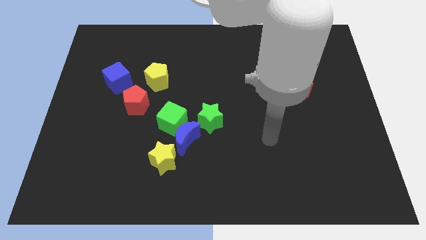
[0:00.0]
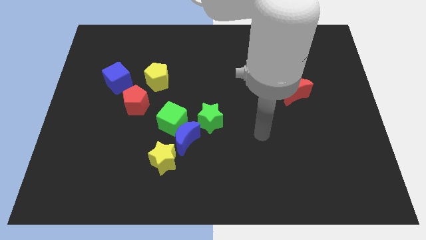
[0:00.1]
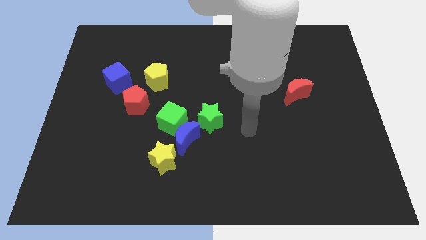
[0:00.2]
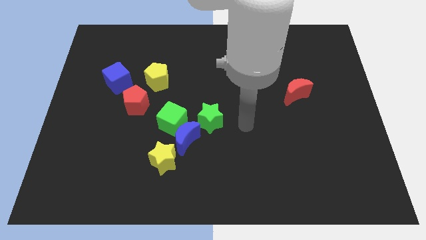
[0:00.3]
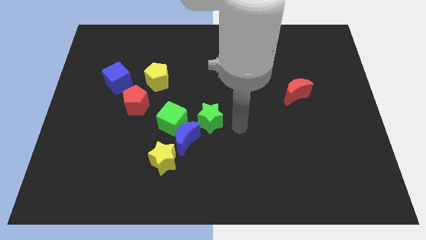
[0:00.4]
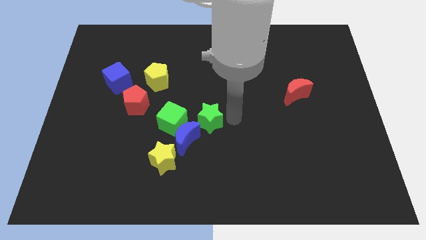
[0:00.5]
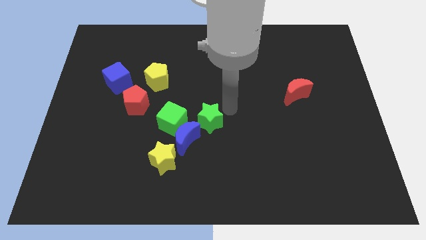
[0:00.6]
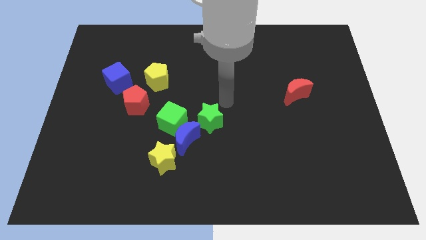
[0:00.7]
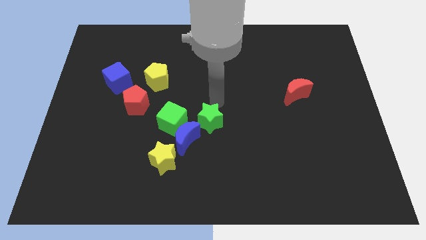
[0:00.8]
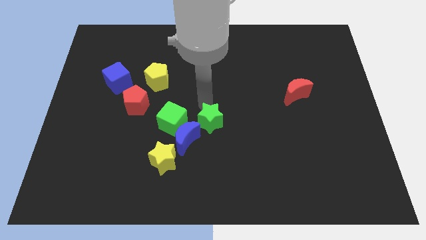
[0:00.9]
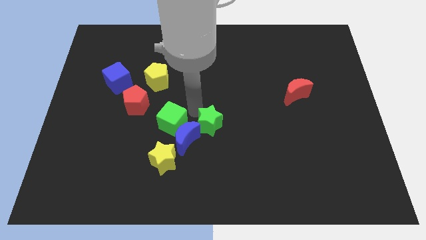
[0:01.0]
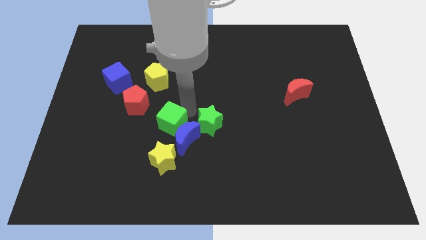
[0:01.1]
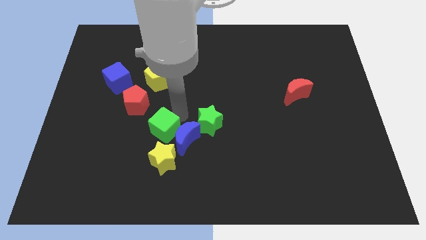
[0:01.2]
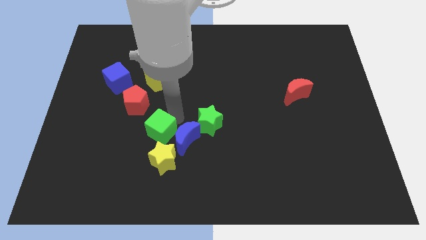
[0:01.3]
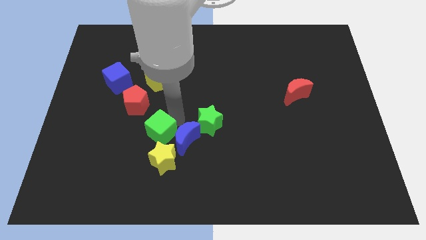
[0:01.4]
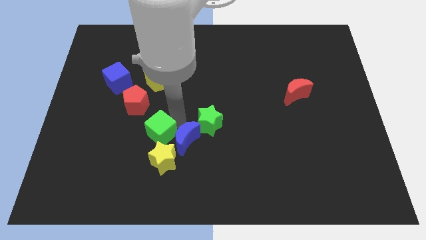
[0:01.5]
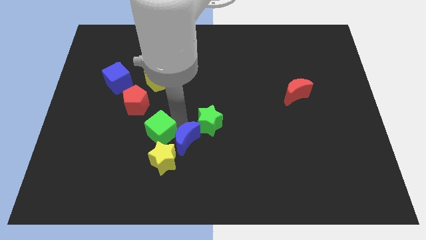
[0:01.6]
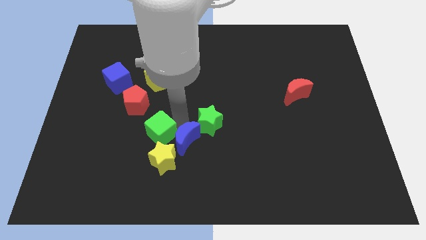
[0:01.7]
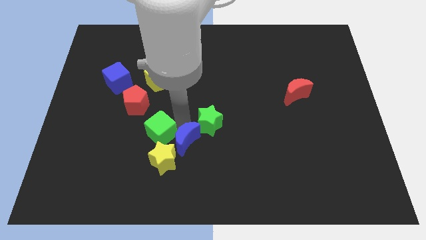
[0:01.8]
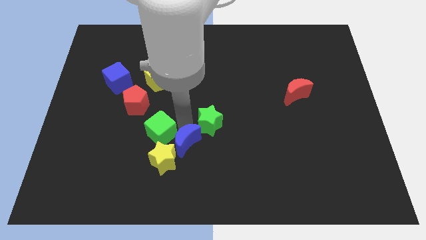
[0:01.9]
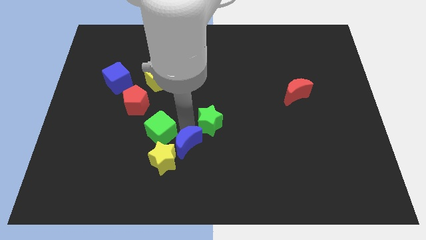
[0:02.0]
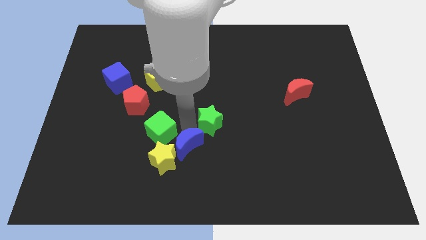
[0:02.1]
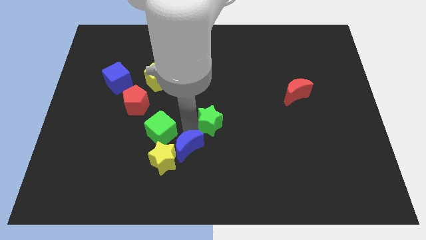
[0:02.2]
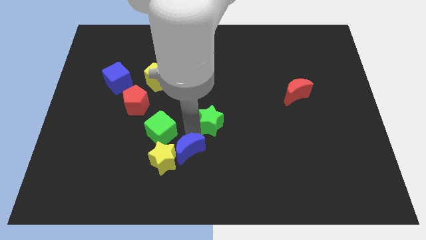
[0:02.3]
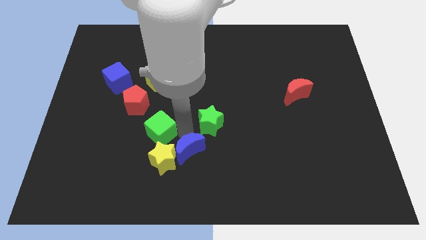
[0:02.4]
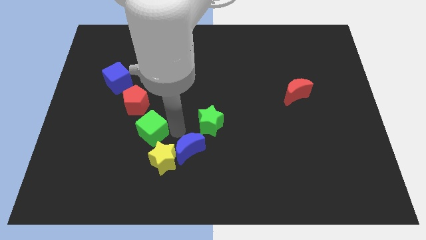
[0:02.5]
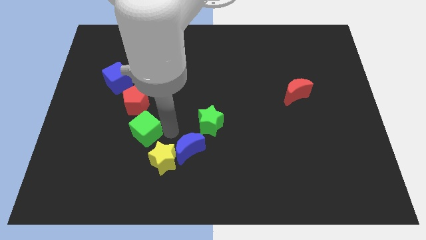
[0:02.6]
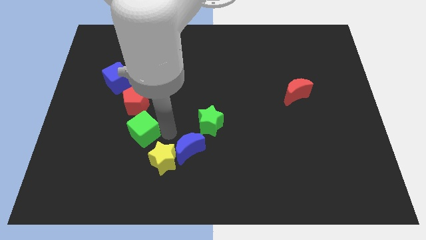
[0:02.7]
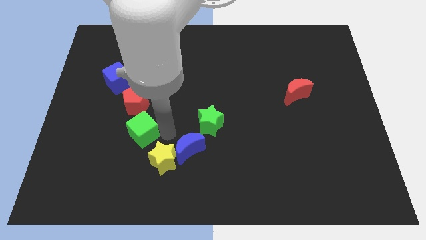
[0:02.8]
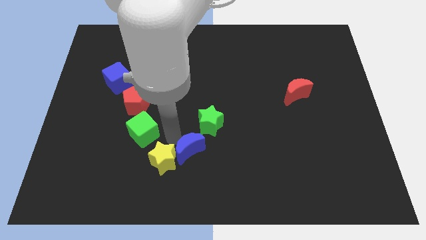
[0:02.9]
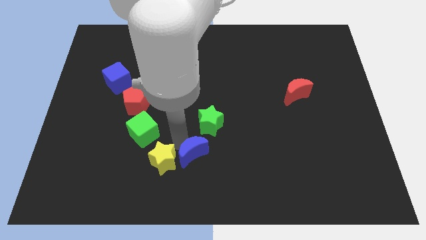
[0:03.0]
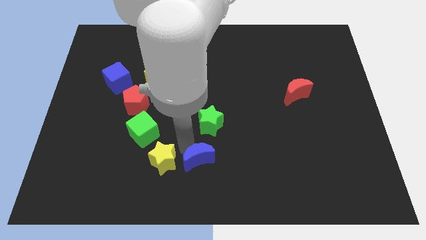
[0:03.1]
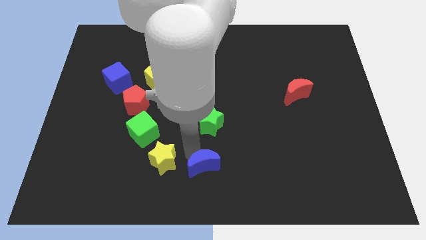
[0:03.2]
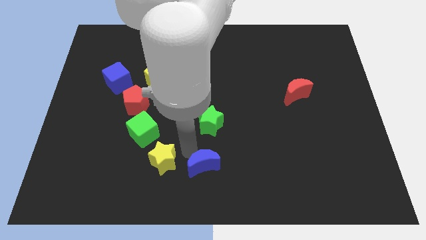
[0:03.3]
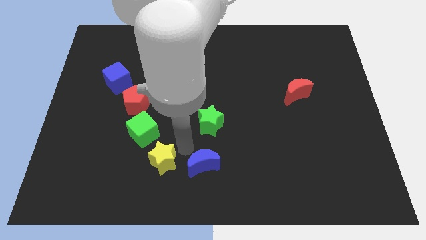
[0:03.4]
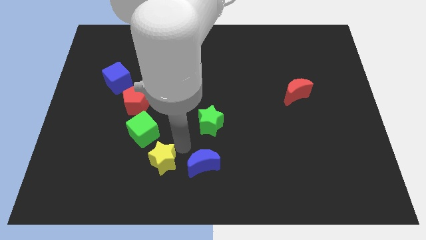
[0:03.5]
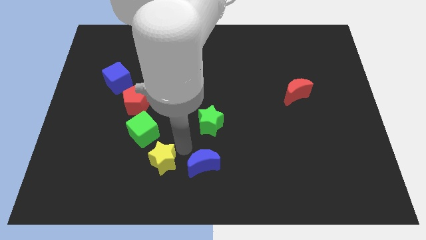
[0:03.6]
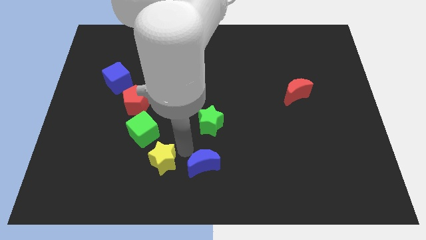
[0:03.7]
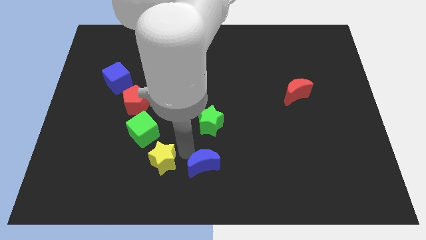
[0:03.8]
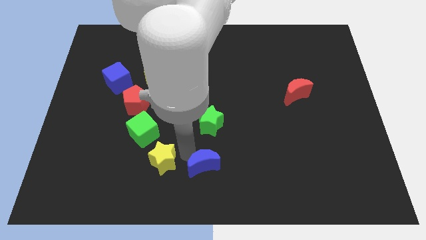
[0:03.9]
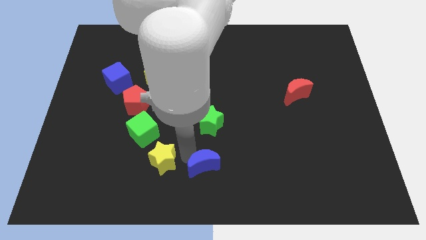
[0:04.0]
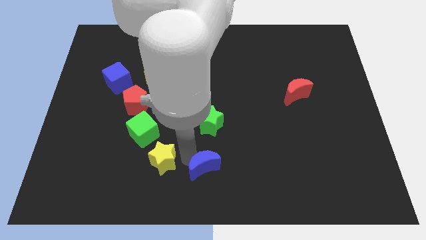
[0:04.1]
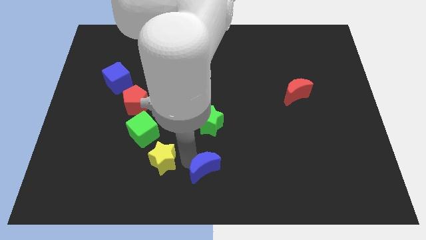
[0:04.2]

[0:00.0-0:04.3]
separate the blue moon from the green cube, yellow star, and green star

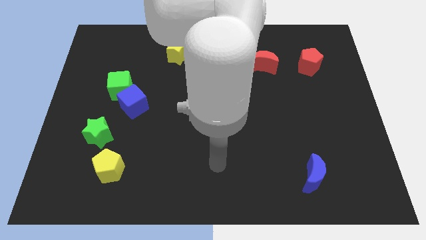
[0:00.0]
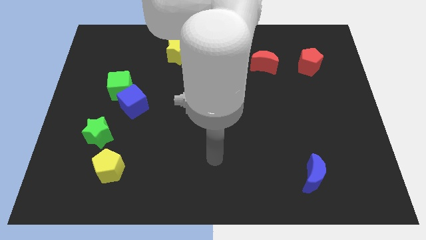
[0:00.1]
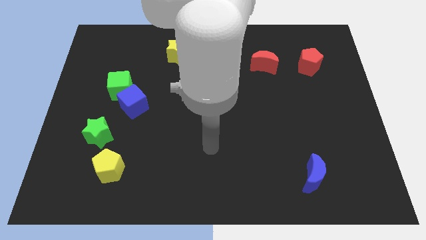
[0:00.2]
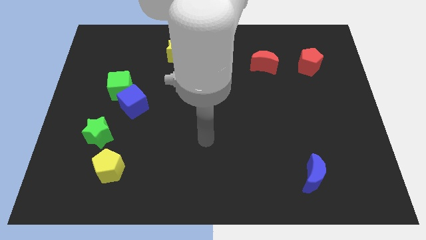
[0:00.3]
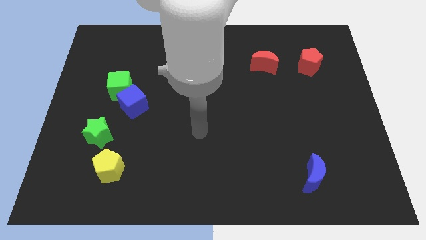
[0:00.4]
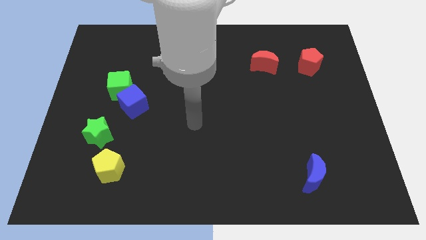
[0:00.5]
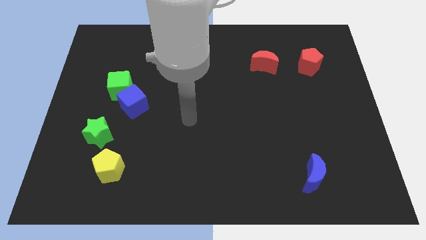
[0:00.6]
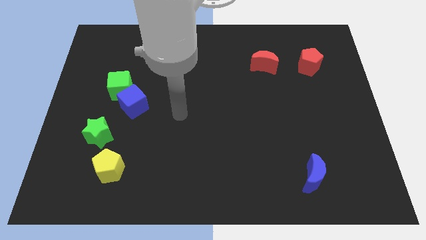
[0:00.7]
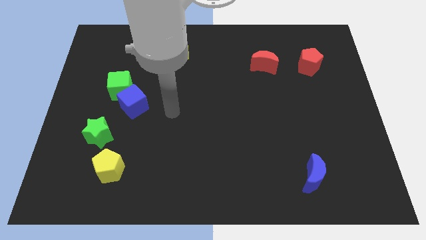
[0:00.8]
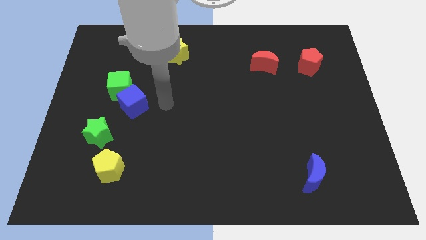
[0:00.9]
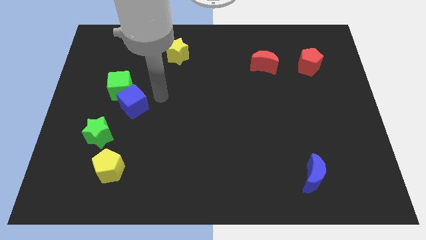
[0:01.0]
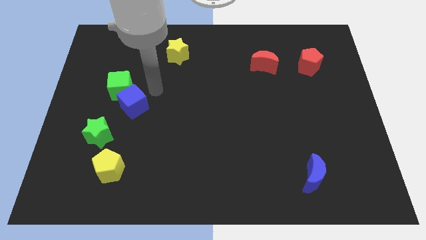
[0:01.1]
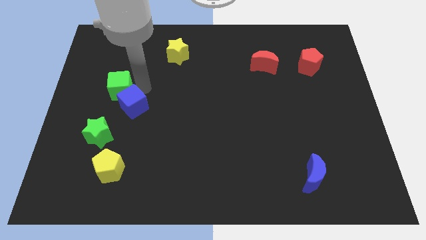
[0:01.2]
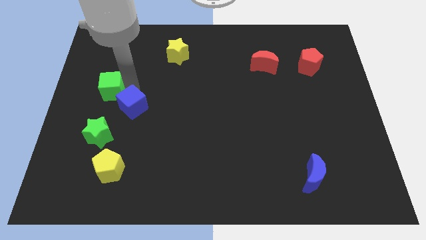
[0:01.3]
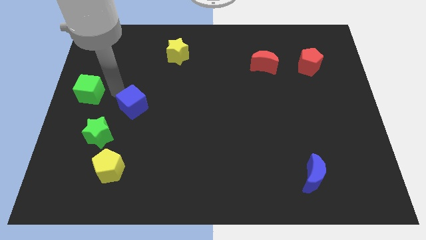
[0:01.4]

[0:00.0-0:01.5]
move the blue cube away from the green cube

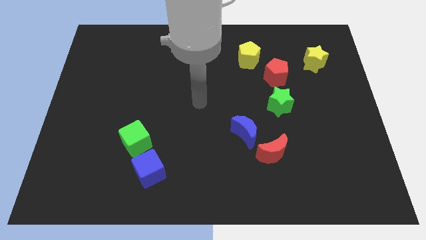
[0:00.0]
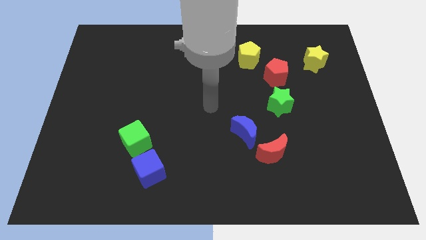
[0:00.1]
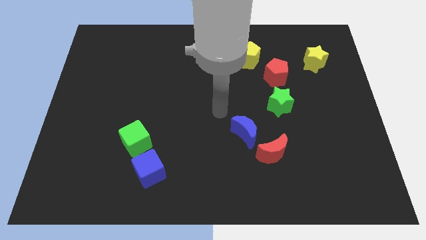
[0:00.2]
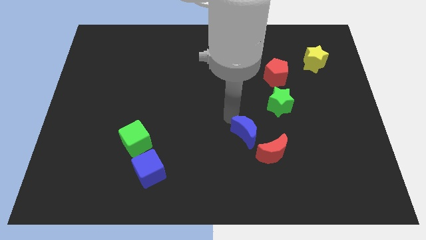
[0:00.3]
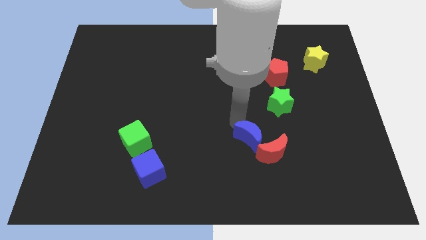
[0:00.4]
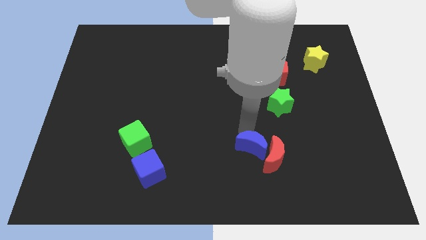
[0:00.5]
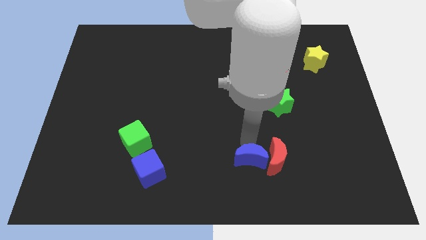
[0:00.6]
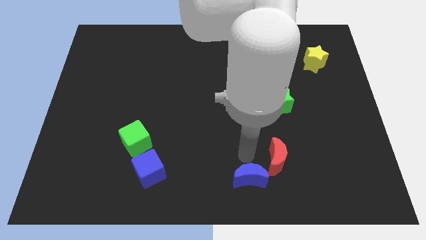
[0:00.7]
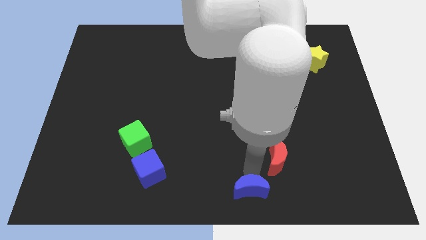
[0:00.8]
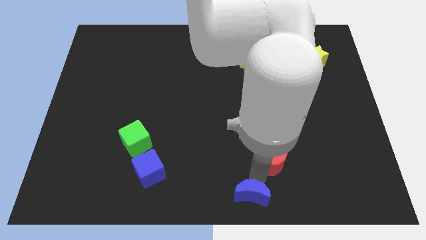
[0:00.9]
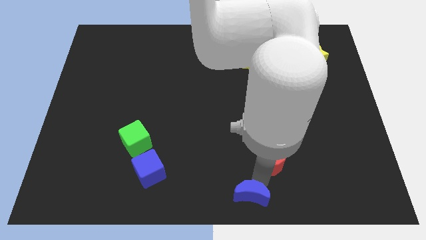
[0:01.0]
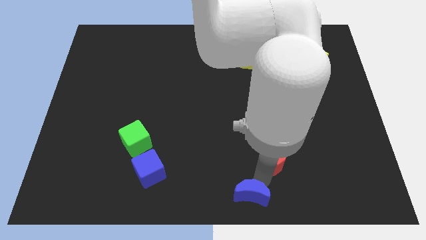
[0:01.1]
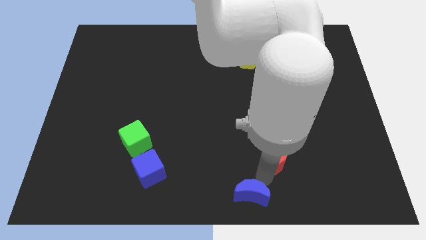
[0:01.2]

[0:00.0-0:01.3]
pull the red moon apart from the blue moon

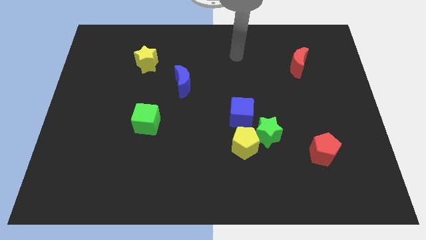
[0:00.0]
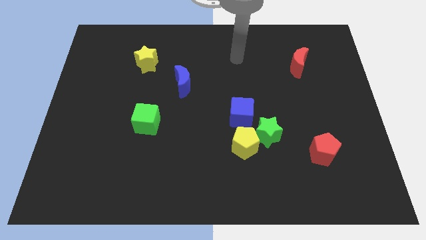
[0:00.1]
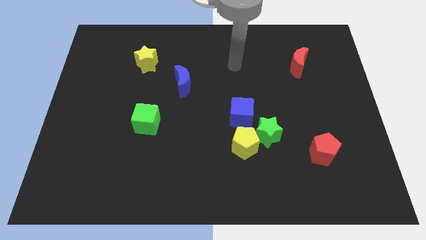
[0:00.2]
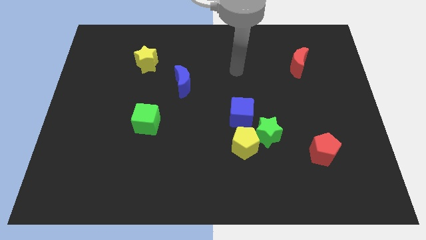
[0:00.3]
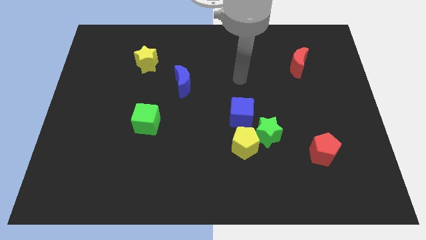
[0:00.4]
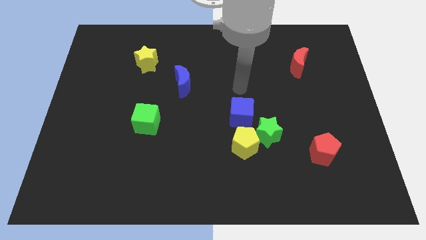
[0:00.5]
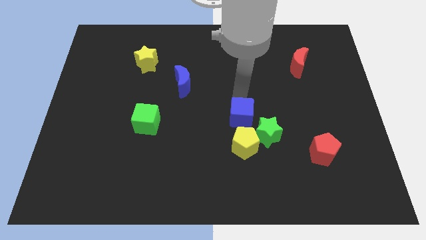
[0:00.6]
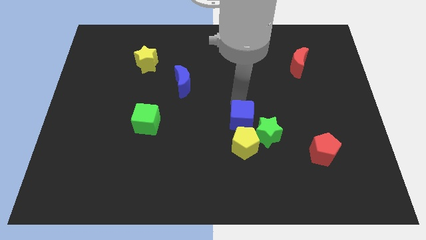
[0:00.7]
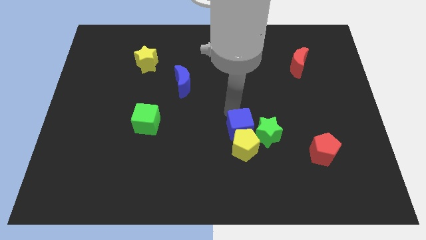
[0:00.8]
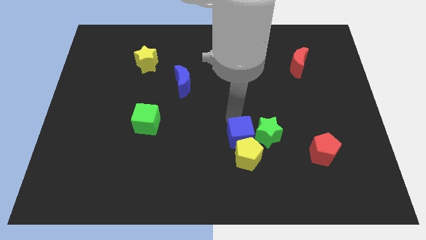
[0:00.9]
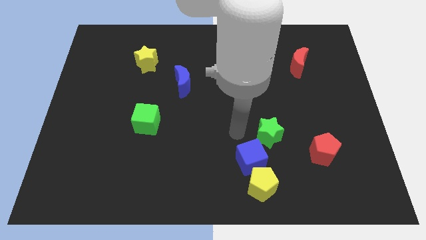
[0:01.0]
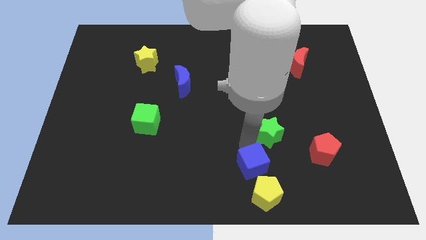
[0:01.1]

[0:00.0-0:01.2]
move the green star away from the yellow pentagon and blue cube

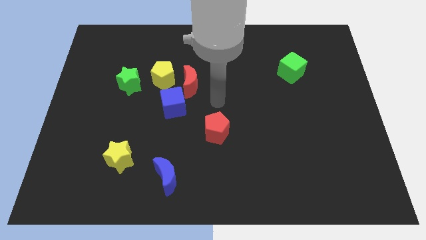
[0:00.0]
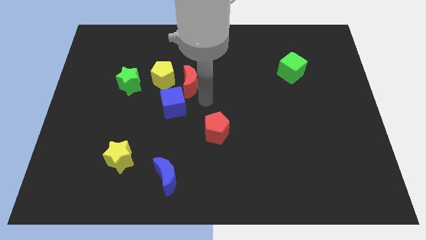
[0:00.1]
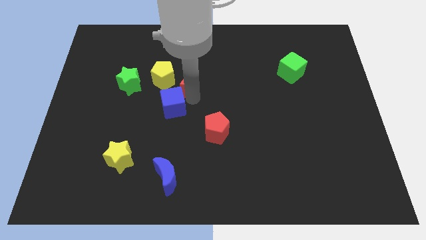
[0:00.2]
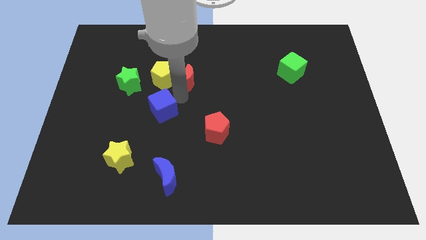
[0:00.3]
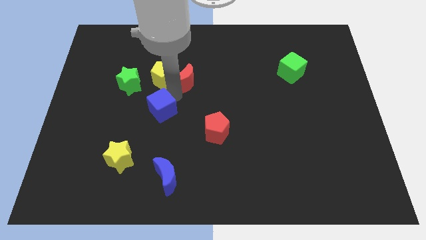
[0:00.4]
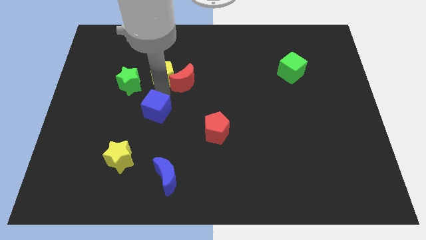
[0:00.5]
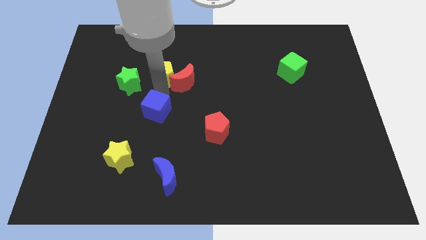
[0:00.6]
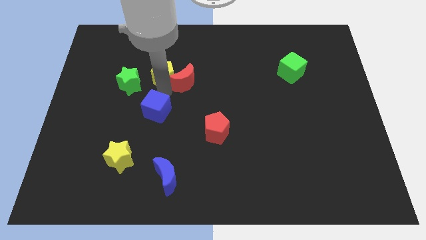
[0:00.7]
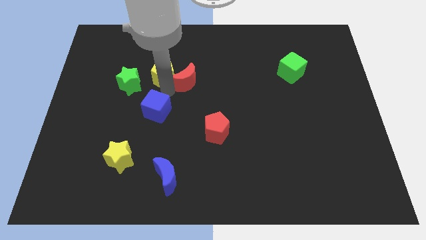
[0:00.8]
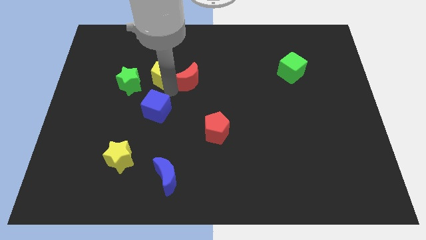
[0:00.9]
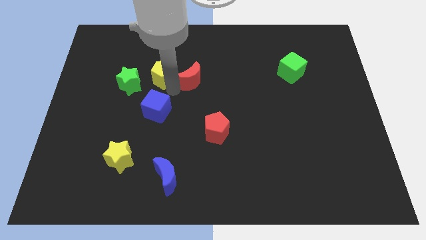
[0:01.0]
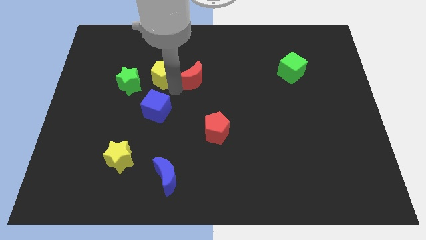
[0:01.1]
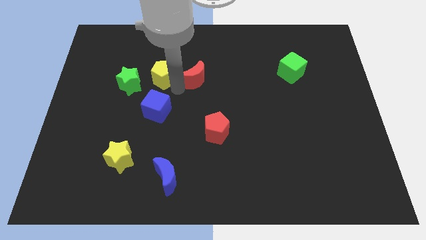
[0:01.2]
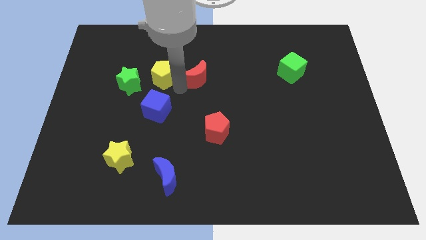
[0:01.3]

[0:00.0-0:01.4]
move the red moon away from the yellow pentagon and blue cube
